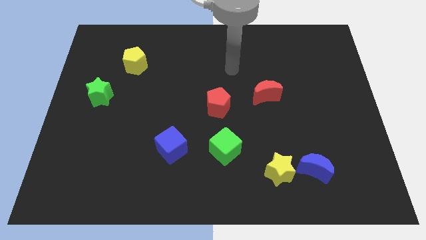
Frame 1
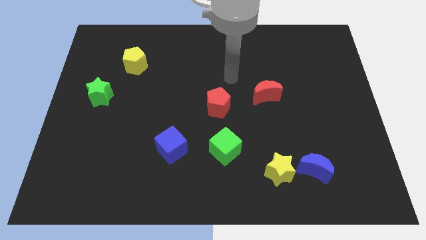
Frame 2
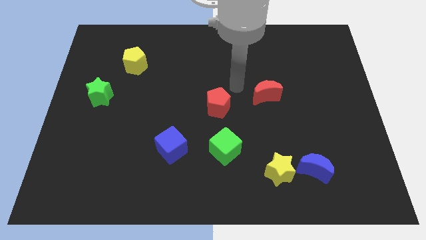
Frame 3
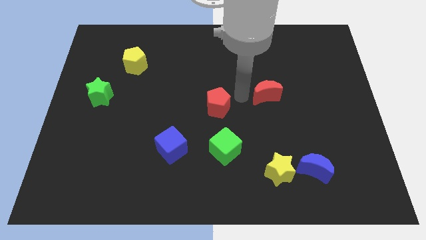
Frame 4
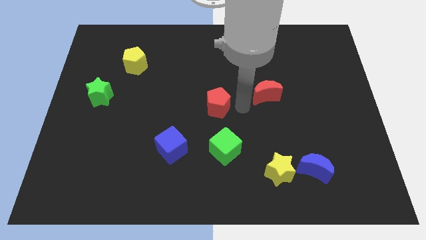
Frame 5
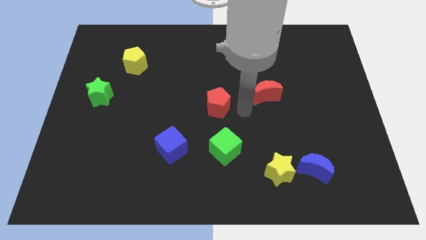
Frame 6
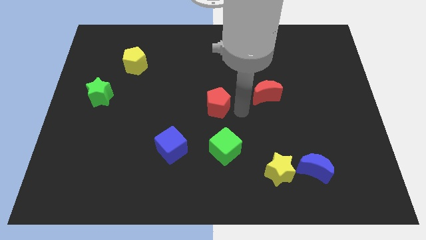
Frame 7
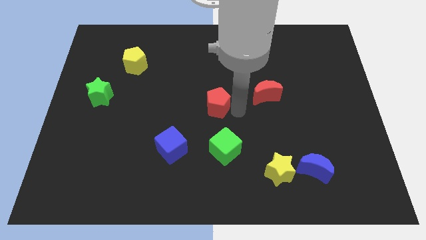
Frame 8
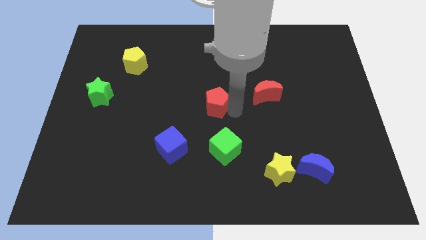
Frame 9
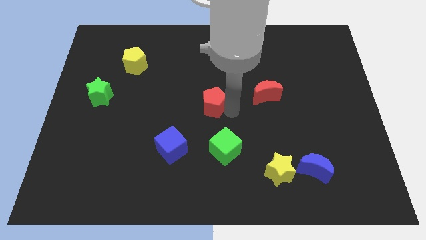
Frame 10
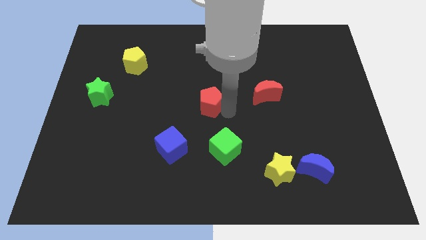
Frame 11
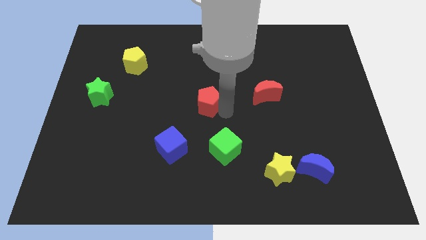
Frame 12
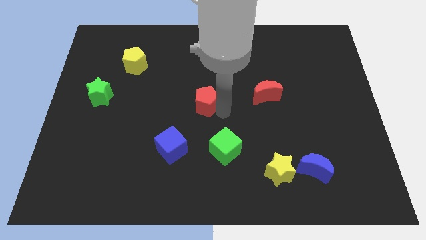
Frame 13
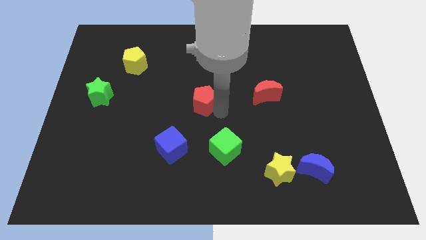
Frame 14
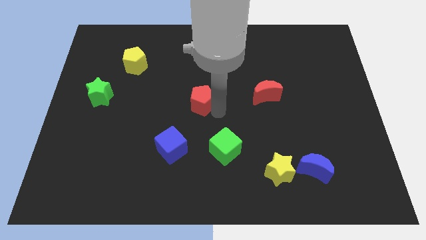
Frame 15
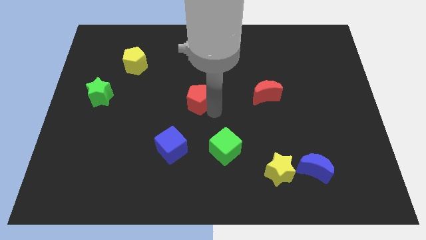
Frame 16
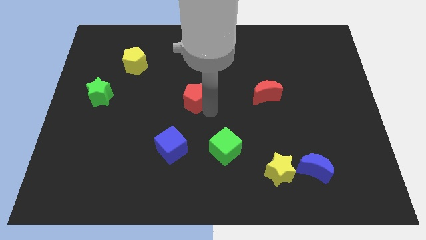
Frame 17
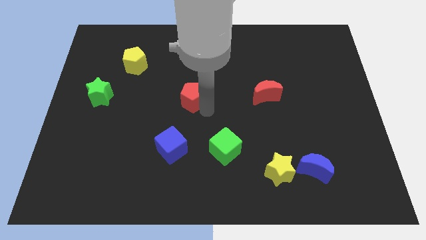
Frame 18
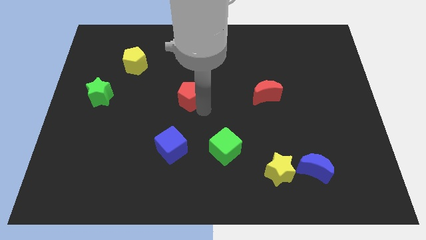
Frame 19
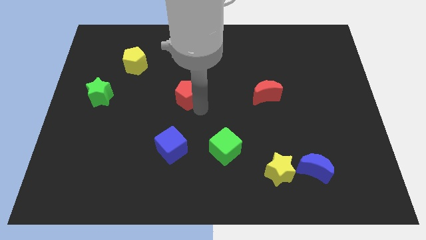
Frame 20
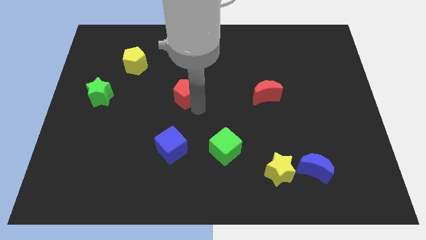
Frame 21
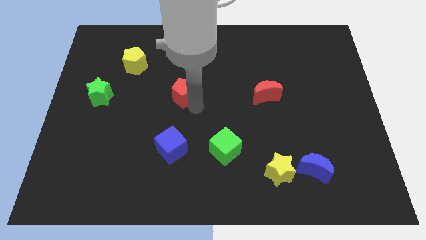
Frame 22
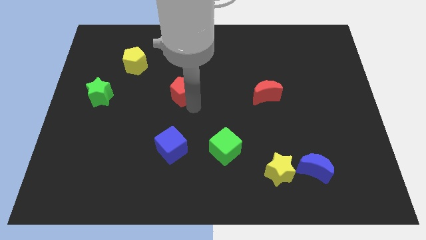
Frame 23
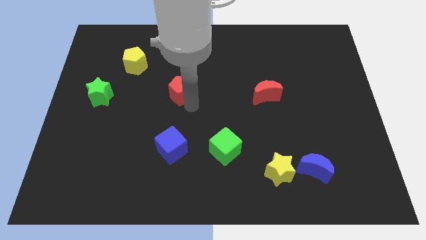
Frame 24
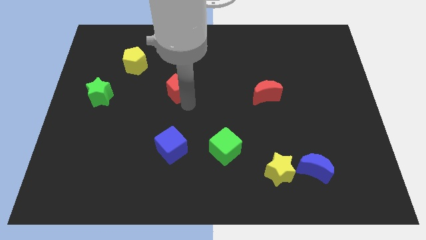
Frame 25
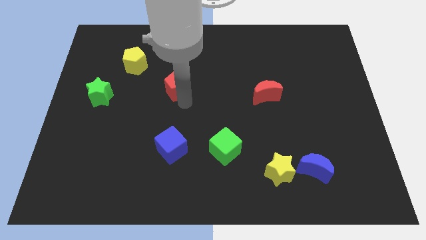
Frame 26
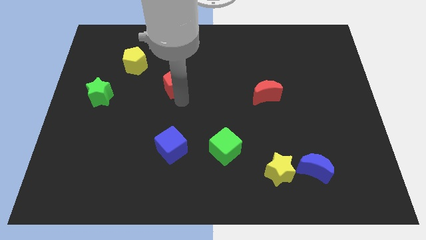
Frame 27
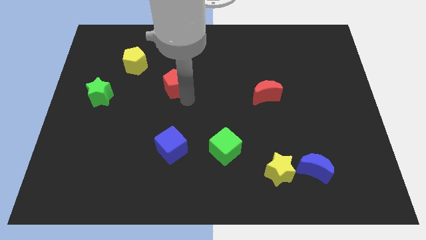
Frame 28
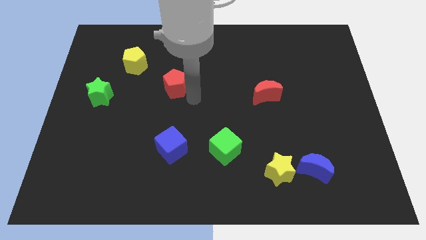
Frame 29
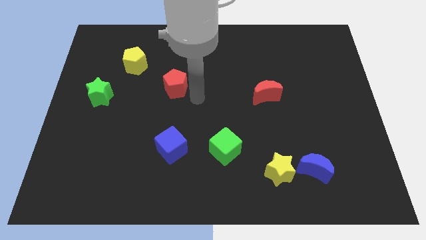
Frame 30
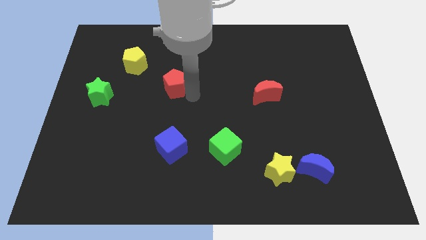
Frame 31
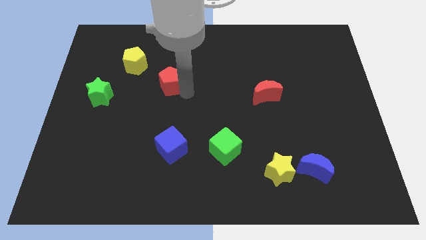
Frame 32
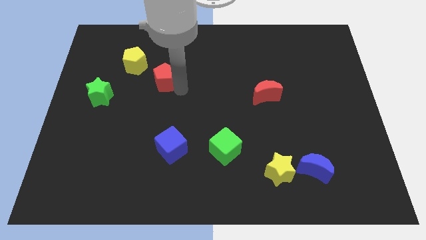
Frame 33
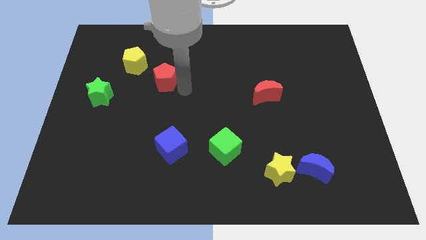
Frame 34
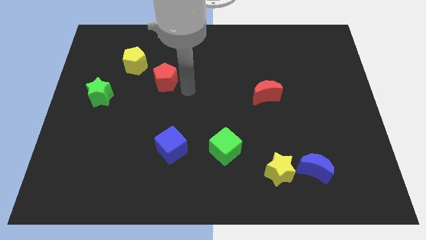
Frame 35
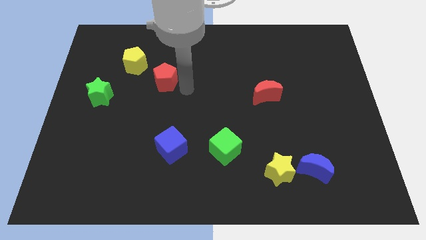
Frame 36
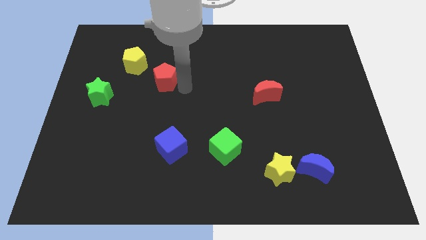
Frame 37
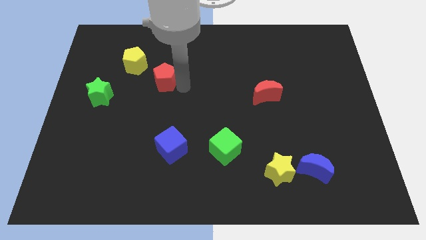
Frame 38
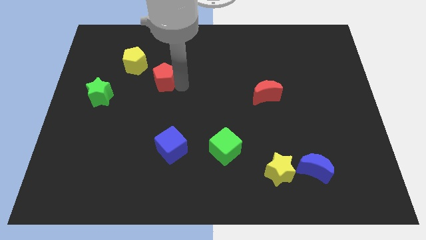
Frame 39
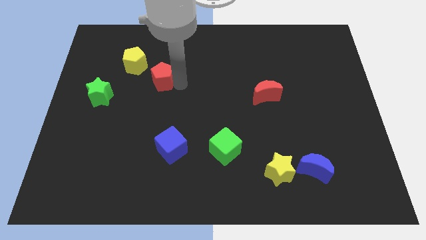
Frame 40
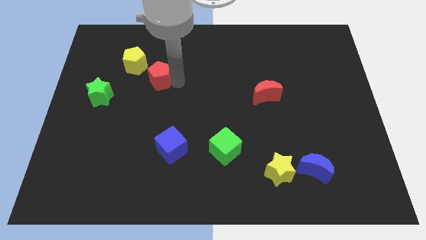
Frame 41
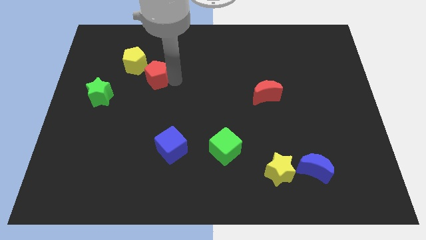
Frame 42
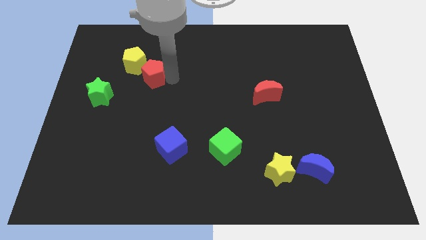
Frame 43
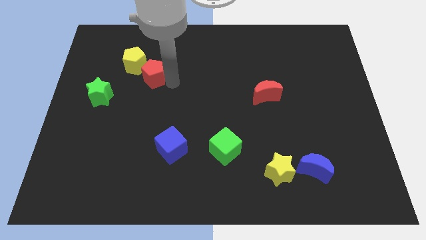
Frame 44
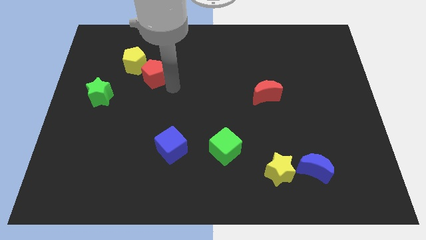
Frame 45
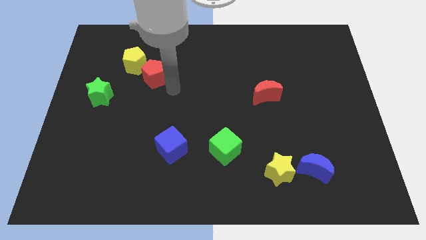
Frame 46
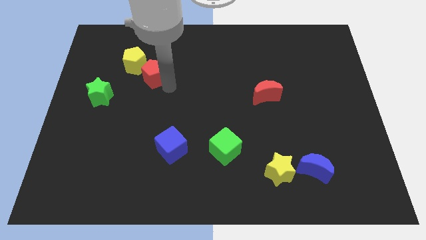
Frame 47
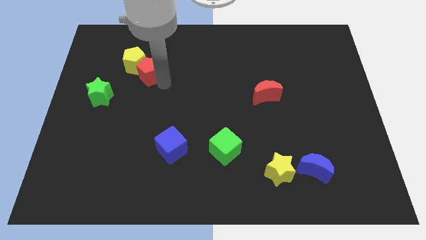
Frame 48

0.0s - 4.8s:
move the red pentagon close to the yellow pentagon

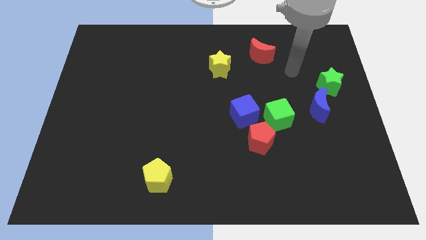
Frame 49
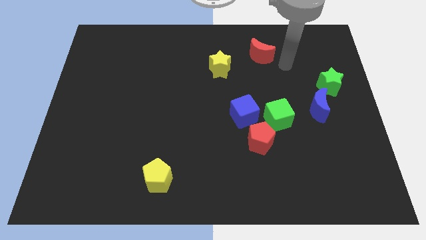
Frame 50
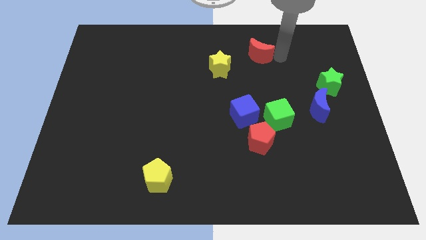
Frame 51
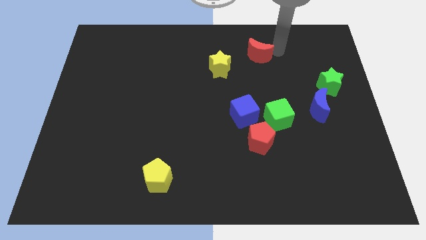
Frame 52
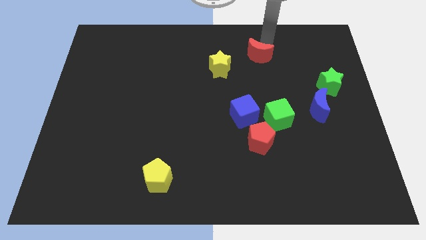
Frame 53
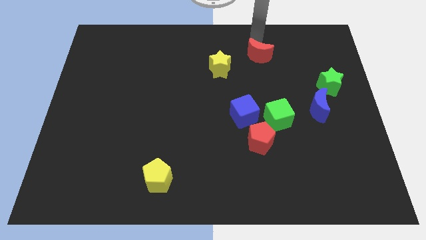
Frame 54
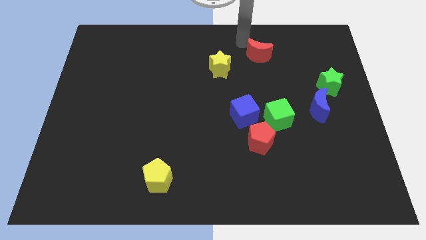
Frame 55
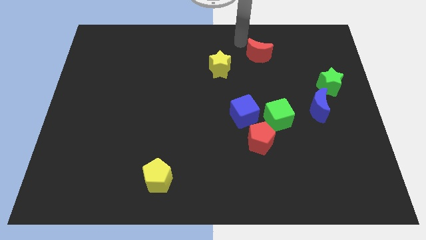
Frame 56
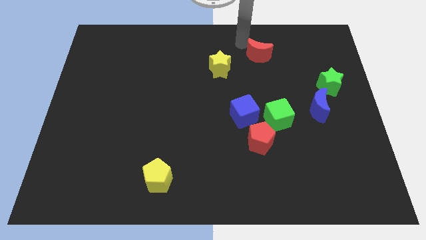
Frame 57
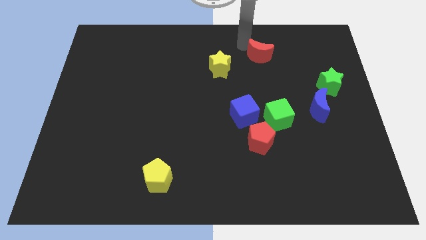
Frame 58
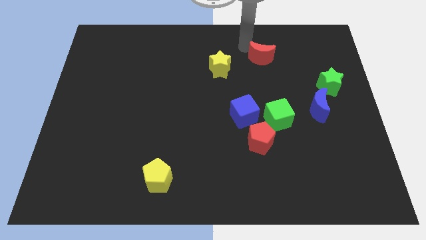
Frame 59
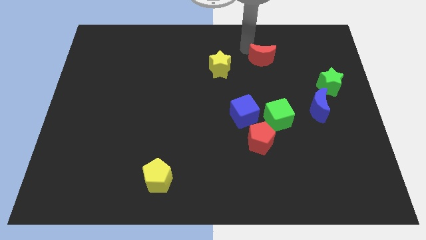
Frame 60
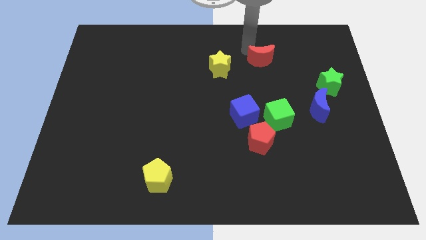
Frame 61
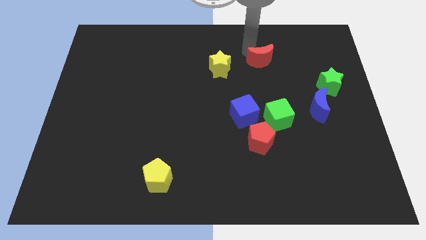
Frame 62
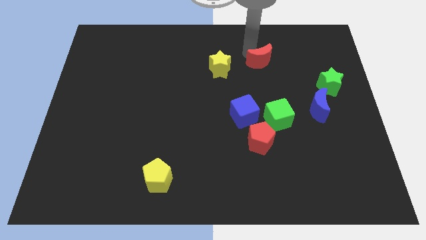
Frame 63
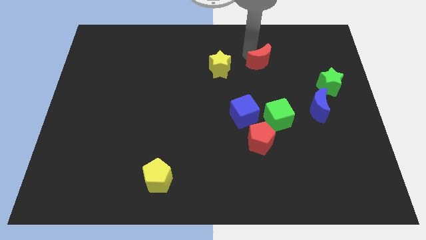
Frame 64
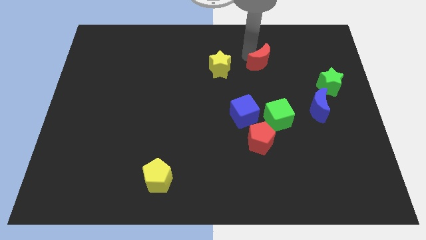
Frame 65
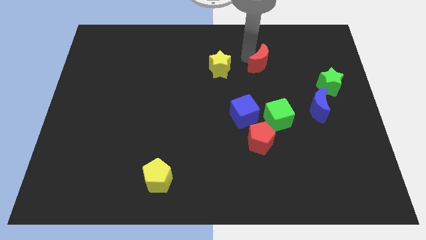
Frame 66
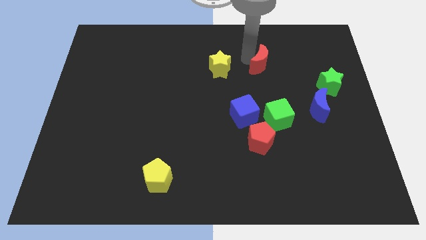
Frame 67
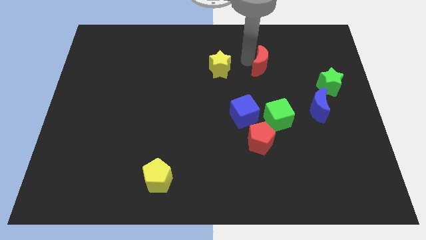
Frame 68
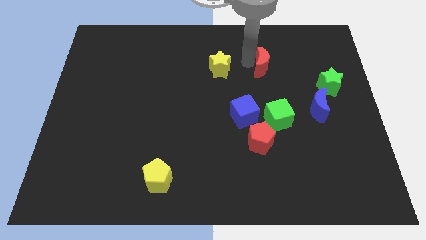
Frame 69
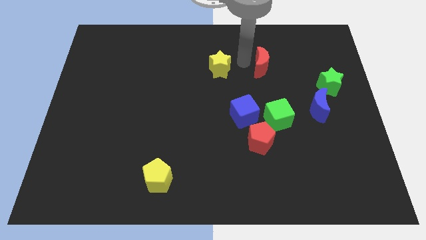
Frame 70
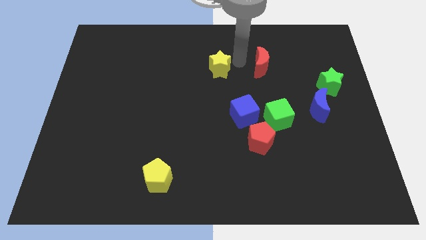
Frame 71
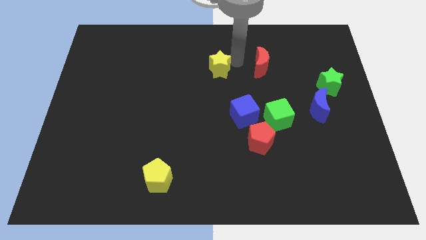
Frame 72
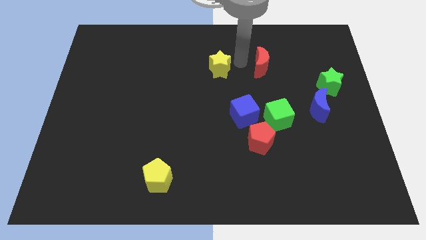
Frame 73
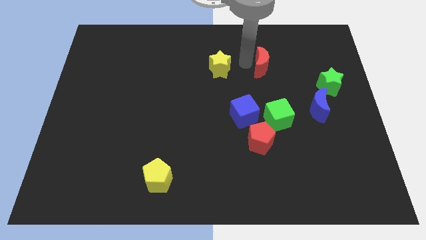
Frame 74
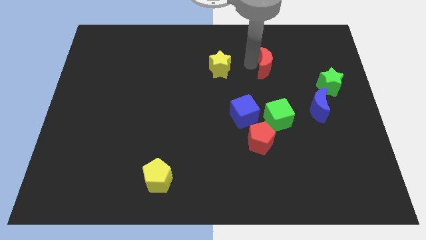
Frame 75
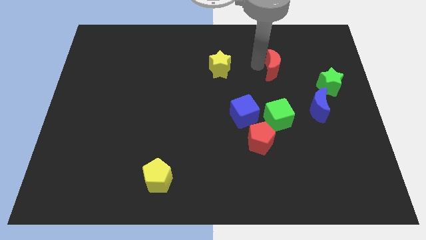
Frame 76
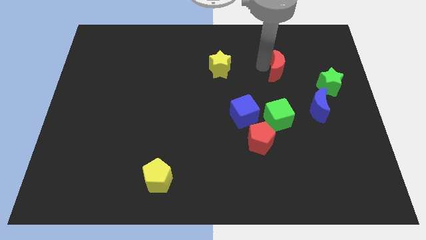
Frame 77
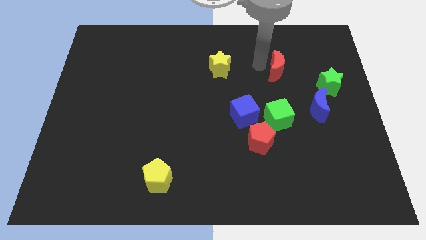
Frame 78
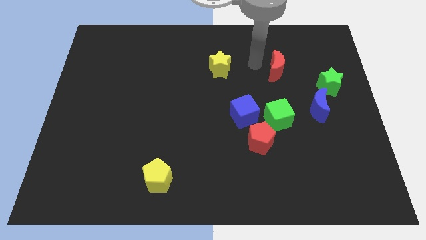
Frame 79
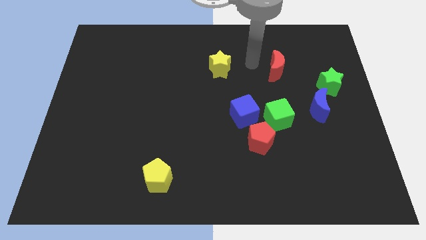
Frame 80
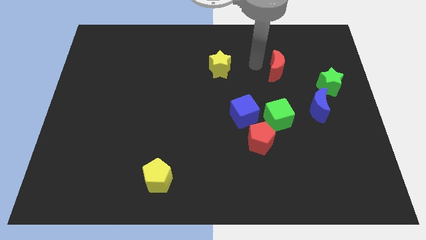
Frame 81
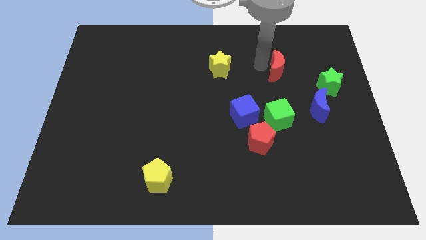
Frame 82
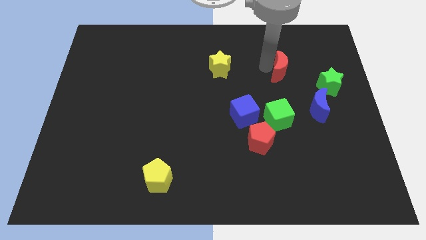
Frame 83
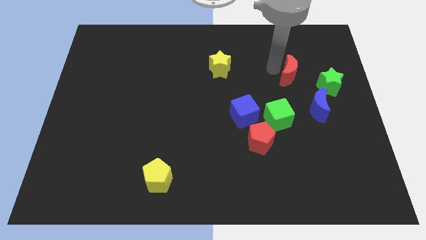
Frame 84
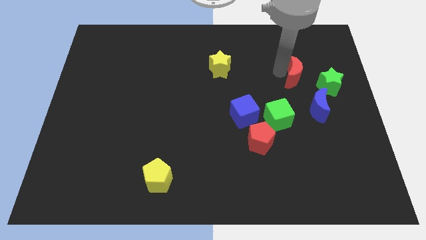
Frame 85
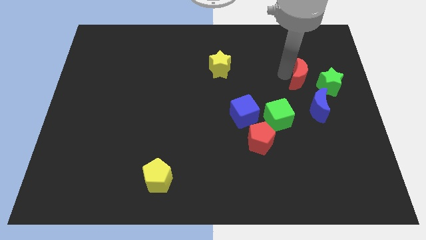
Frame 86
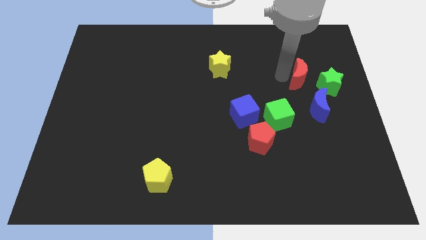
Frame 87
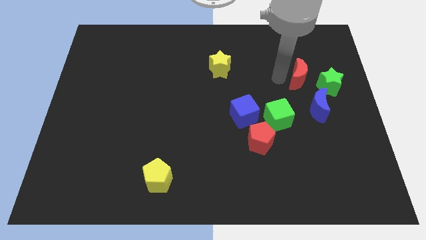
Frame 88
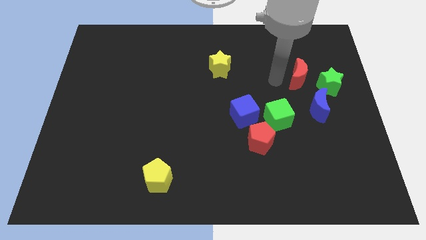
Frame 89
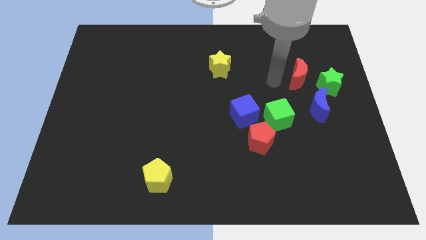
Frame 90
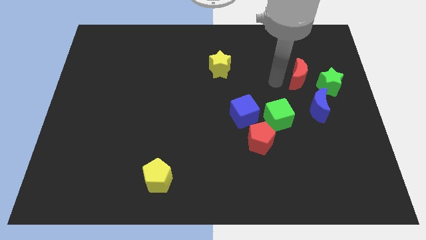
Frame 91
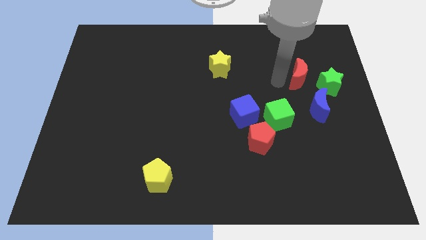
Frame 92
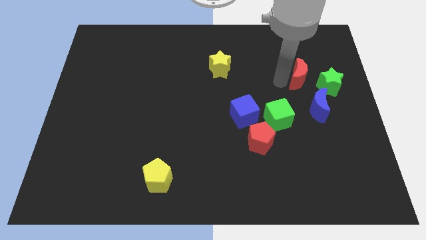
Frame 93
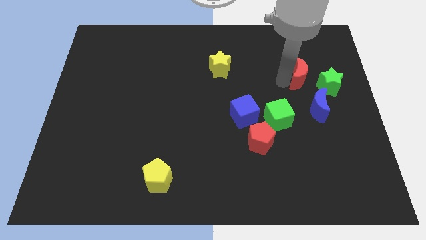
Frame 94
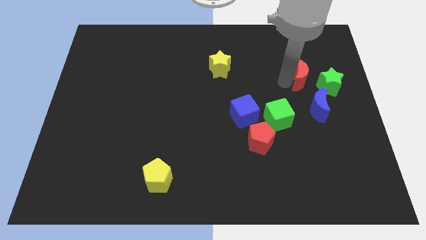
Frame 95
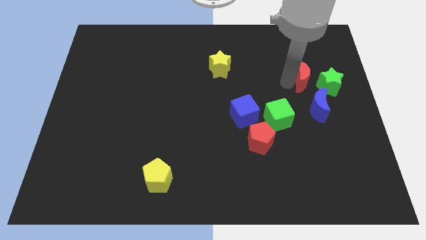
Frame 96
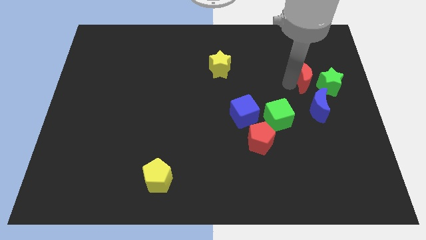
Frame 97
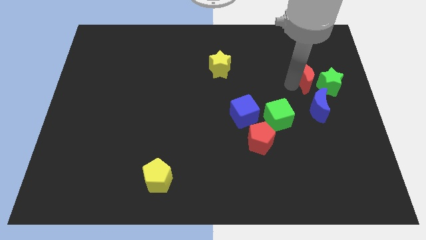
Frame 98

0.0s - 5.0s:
push the red moon next to the green star
